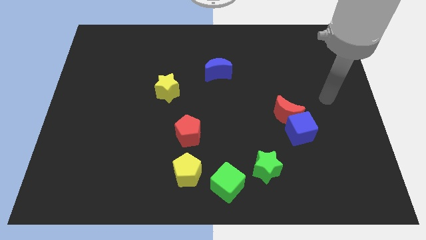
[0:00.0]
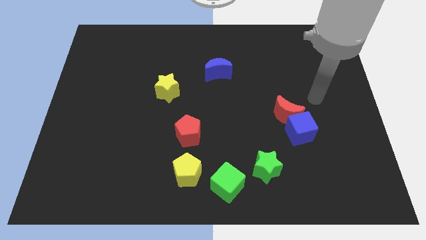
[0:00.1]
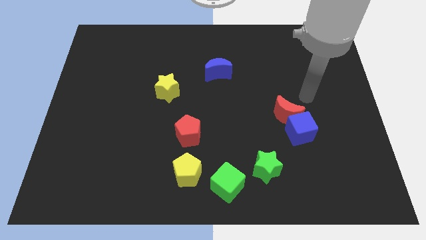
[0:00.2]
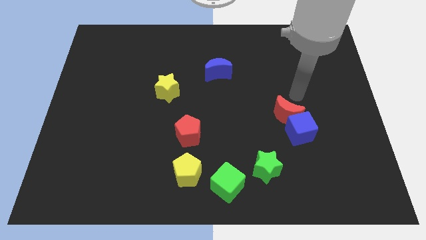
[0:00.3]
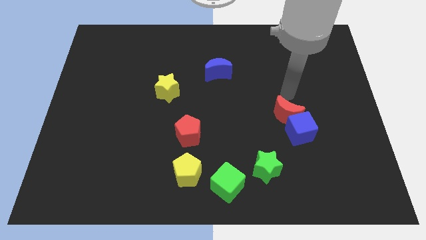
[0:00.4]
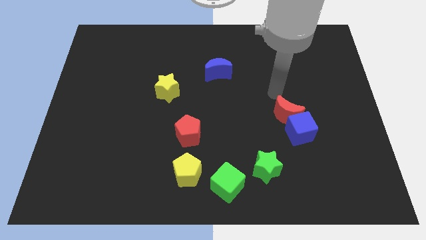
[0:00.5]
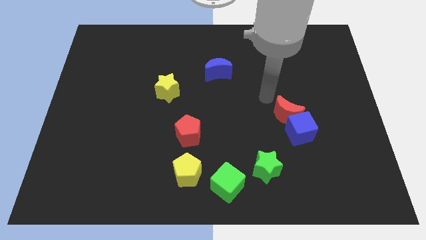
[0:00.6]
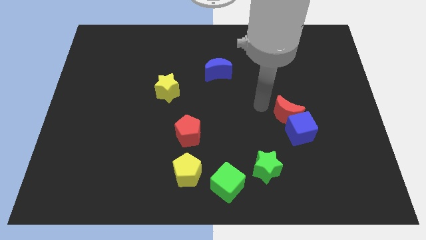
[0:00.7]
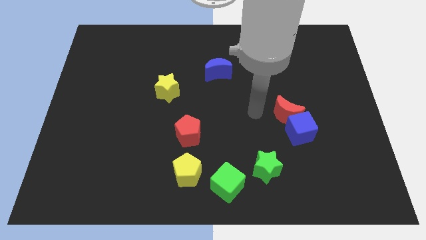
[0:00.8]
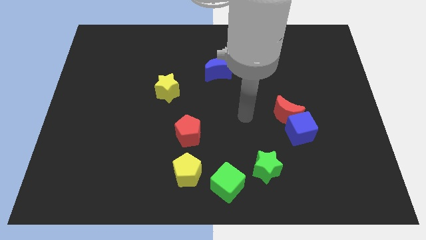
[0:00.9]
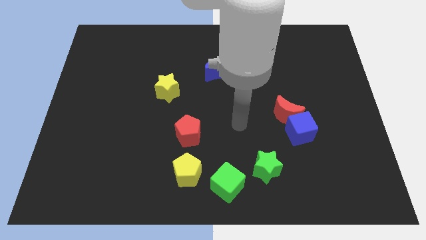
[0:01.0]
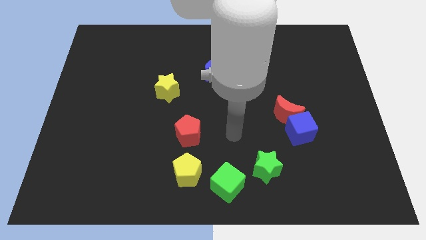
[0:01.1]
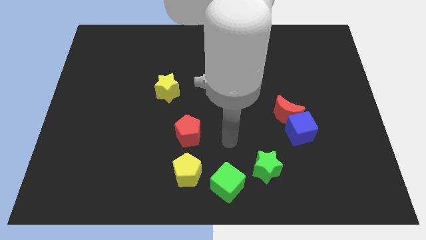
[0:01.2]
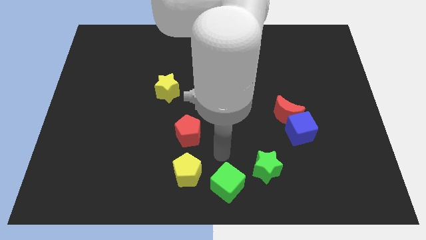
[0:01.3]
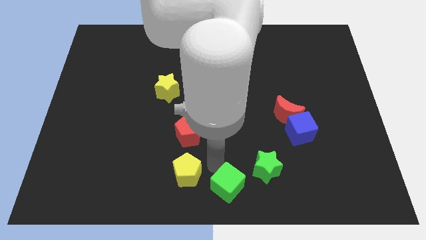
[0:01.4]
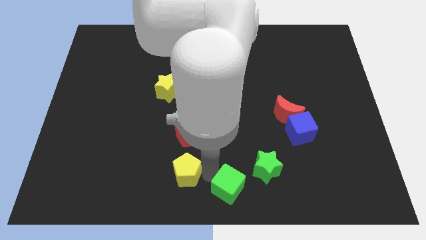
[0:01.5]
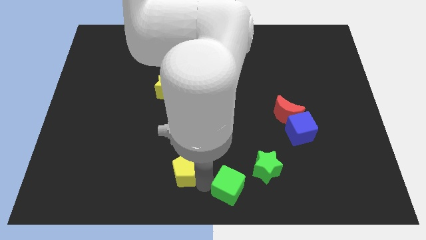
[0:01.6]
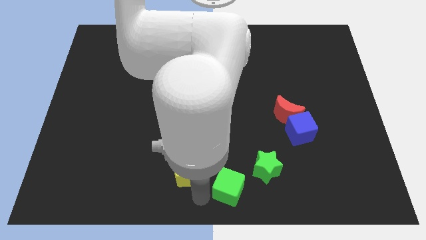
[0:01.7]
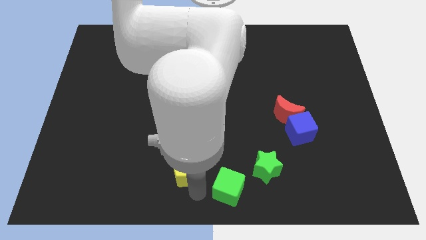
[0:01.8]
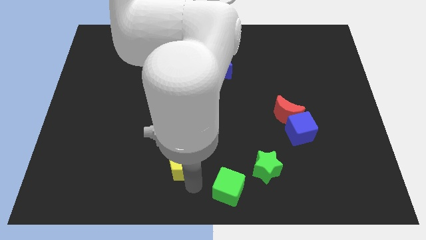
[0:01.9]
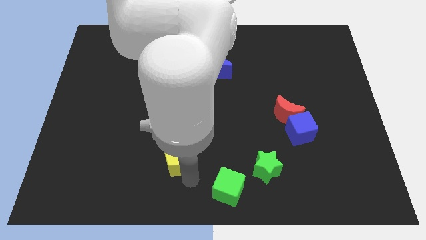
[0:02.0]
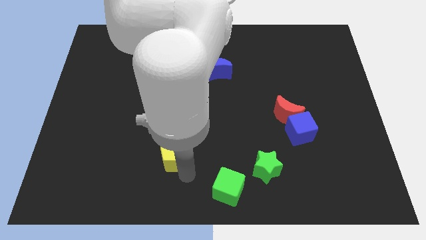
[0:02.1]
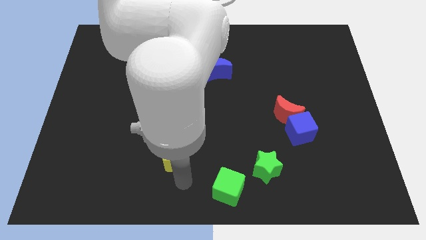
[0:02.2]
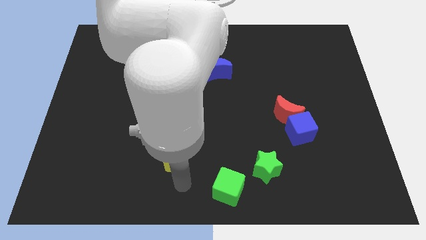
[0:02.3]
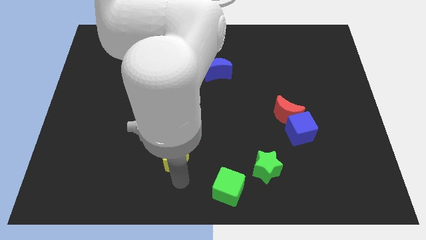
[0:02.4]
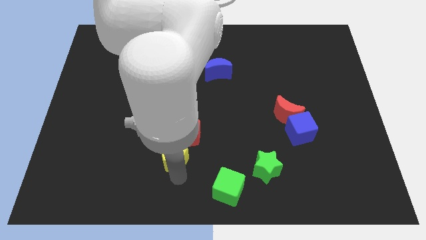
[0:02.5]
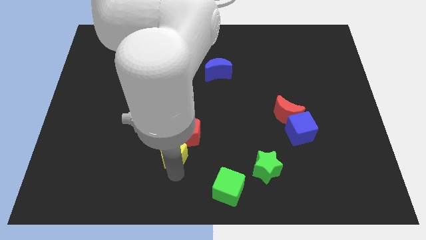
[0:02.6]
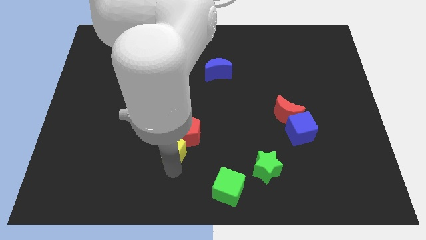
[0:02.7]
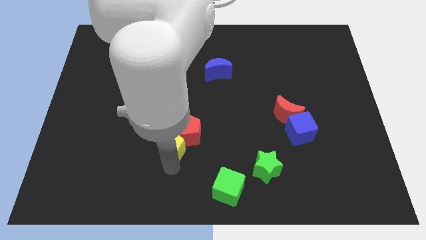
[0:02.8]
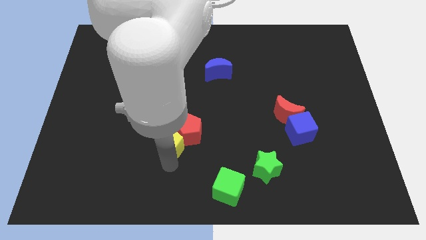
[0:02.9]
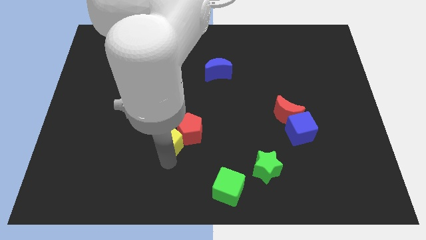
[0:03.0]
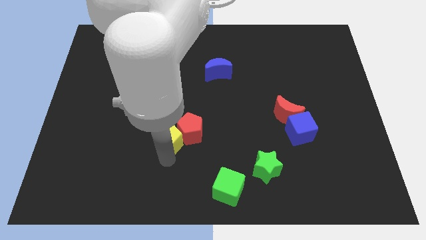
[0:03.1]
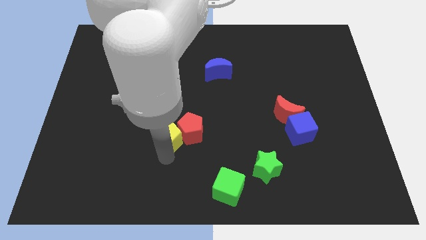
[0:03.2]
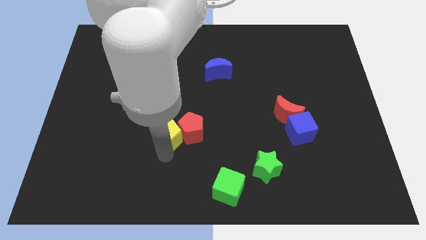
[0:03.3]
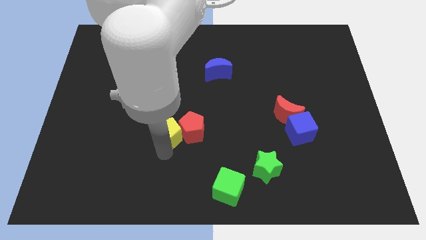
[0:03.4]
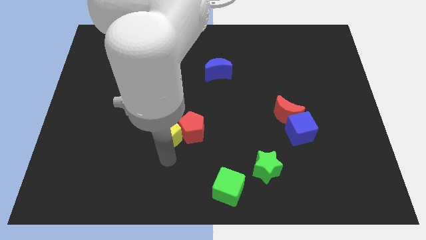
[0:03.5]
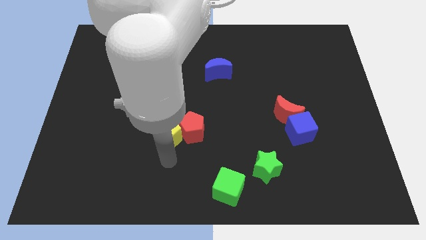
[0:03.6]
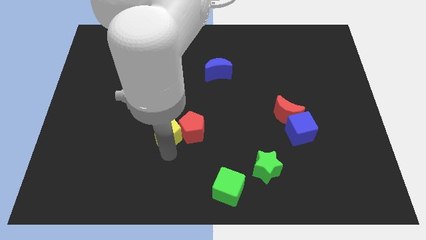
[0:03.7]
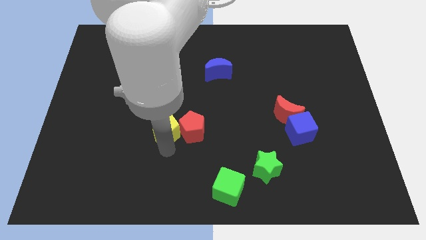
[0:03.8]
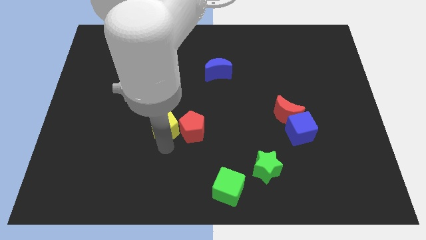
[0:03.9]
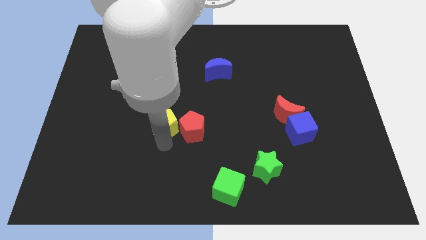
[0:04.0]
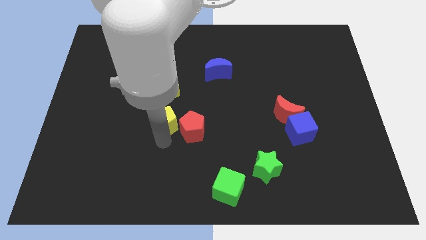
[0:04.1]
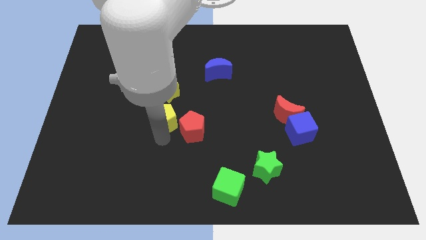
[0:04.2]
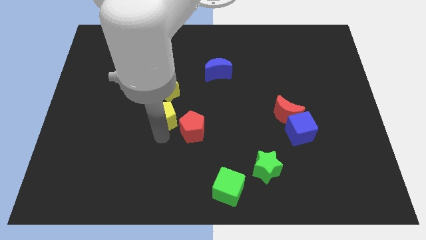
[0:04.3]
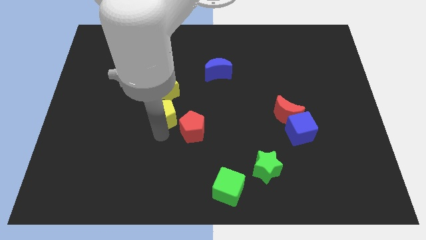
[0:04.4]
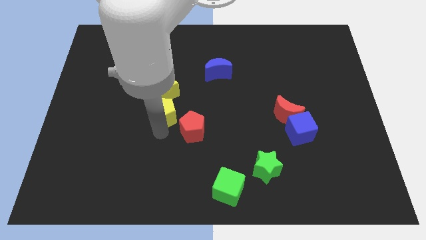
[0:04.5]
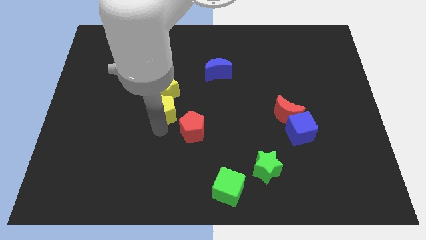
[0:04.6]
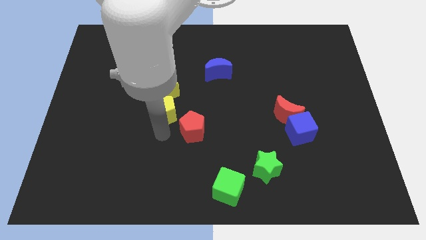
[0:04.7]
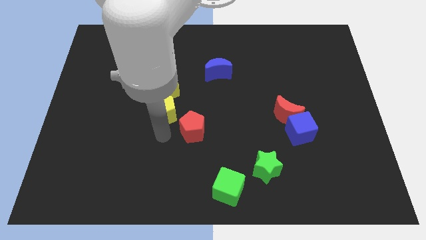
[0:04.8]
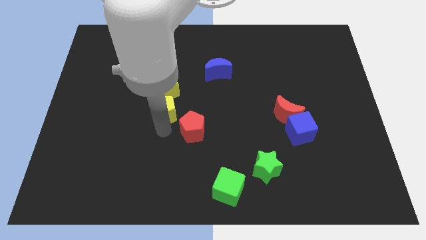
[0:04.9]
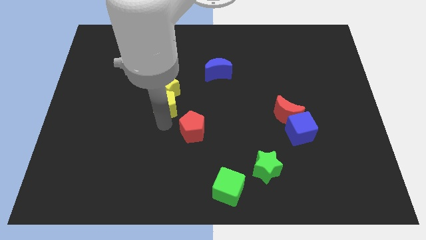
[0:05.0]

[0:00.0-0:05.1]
move the yellow pentagon close to the yellow star

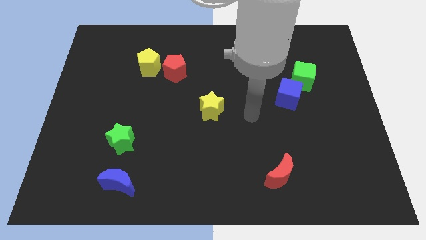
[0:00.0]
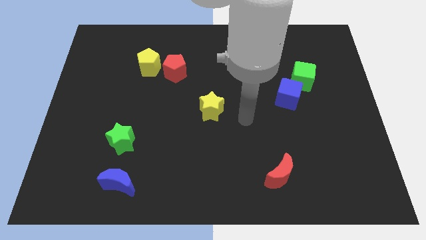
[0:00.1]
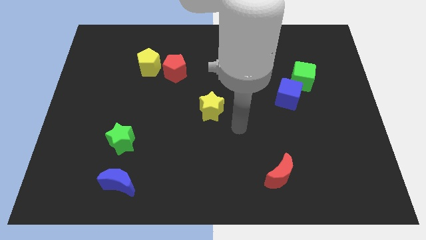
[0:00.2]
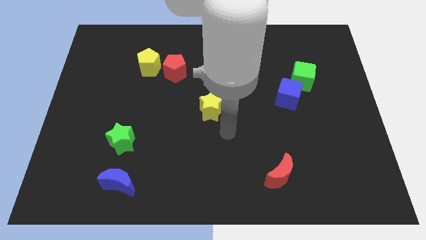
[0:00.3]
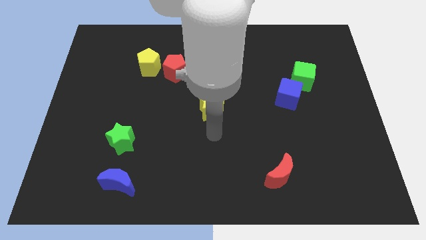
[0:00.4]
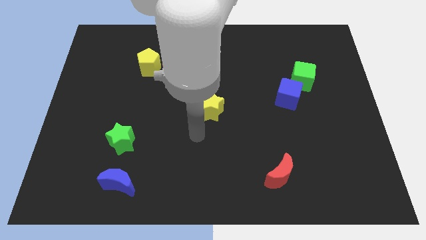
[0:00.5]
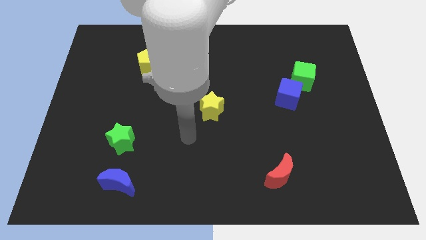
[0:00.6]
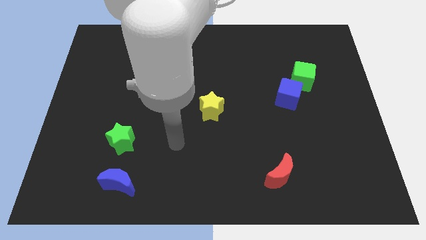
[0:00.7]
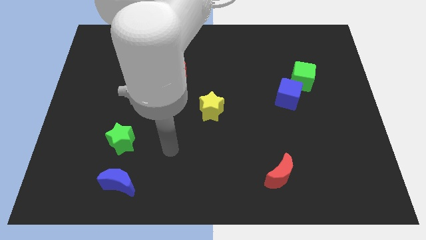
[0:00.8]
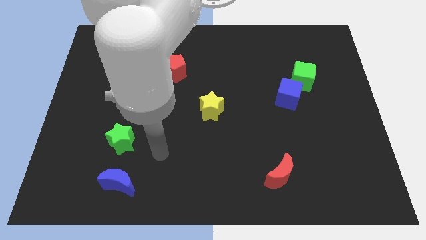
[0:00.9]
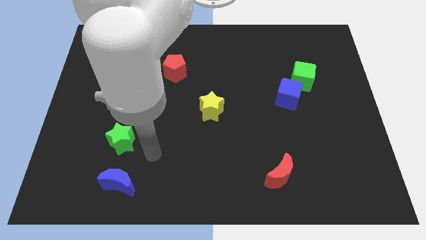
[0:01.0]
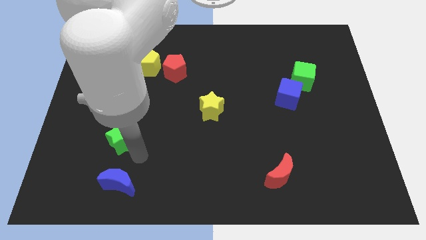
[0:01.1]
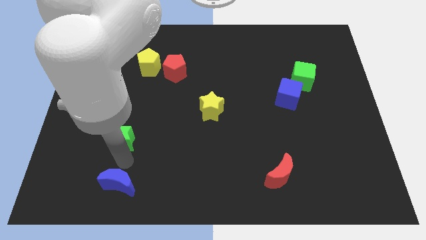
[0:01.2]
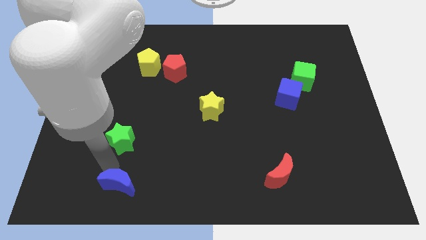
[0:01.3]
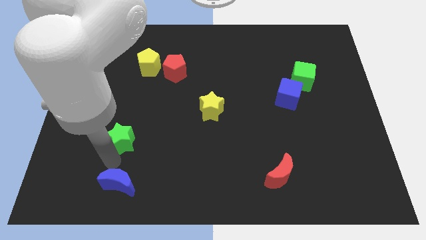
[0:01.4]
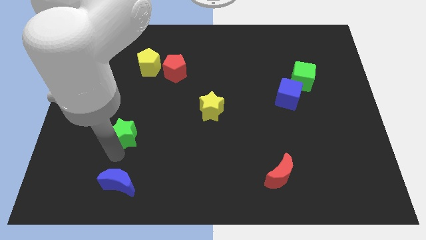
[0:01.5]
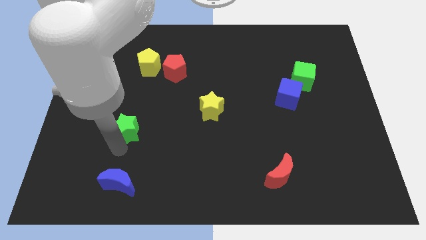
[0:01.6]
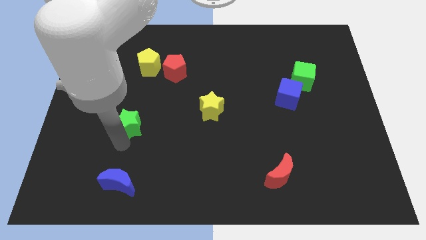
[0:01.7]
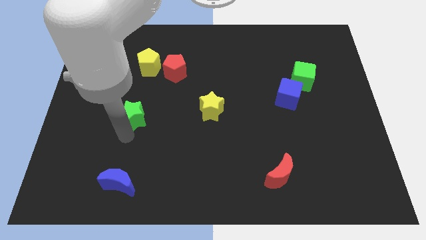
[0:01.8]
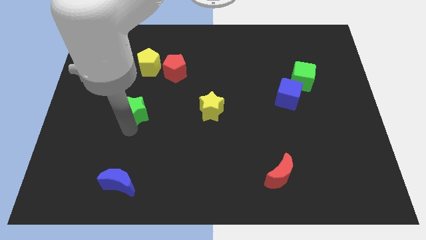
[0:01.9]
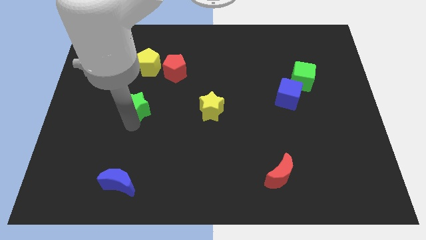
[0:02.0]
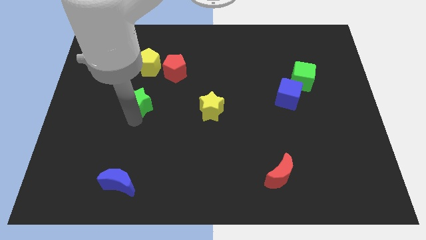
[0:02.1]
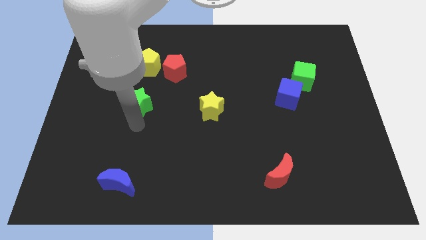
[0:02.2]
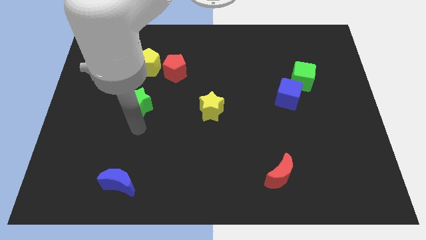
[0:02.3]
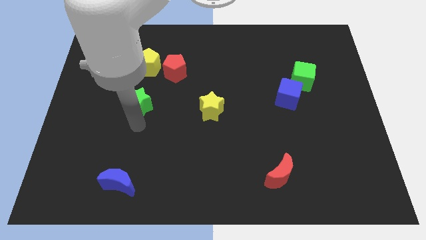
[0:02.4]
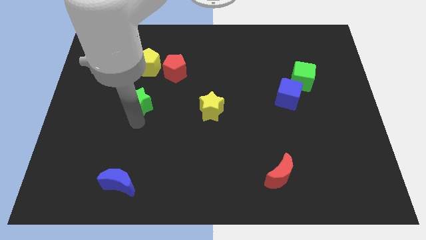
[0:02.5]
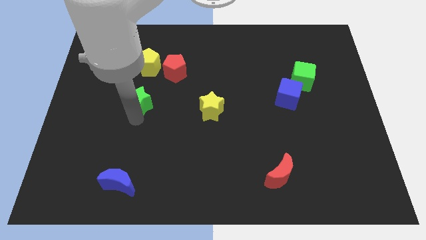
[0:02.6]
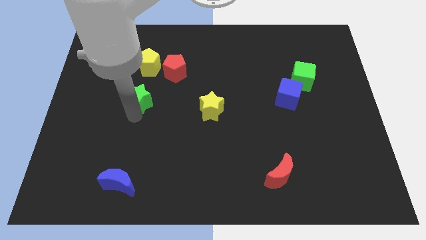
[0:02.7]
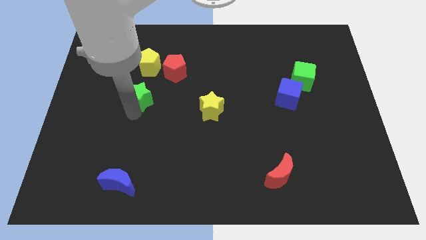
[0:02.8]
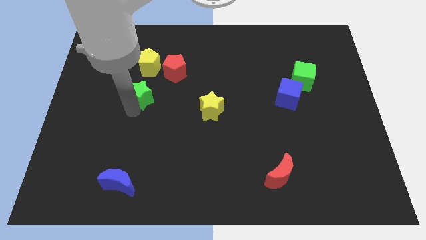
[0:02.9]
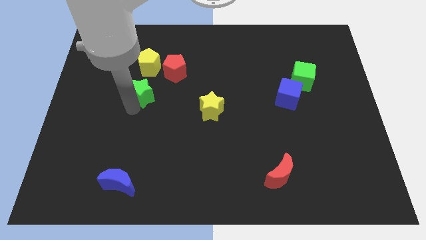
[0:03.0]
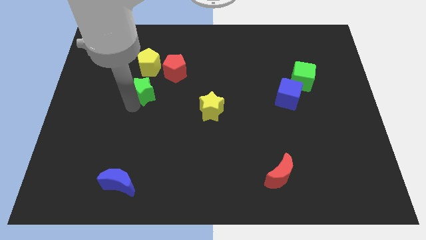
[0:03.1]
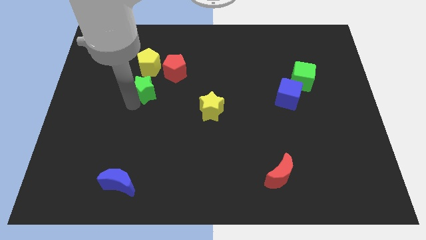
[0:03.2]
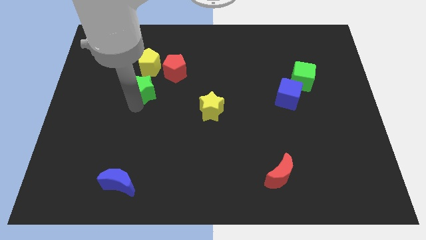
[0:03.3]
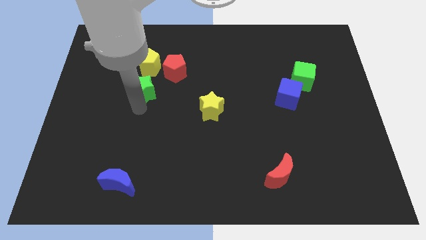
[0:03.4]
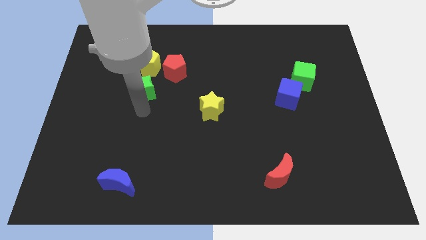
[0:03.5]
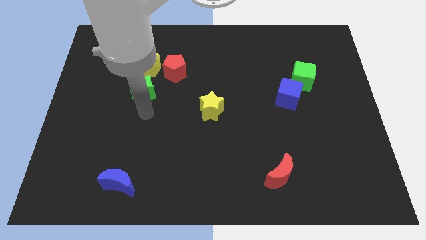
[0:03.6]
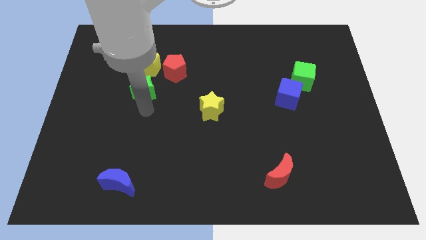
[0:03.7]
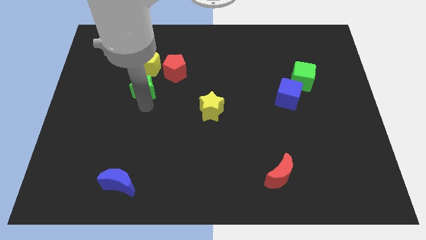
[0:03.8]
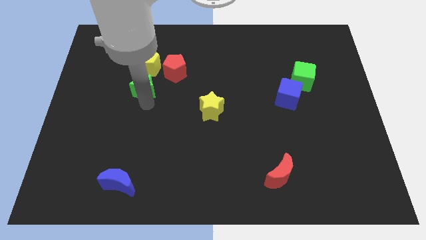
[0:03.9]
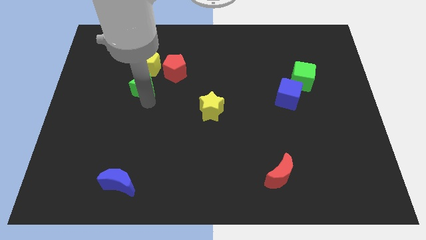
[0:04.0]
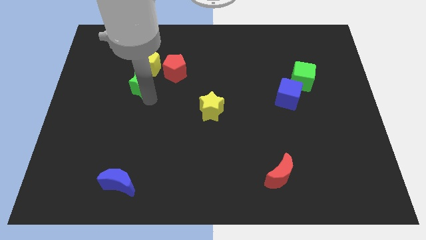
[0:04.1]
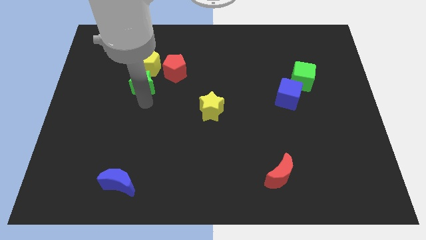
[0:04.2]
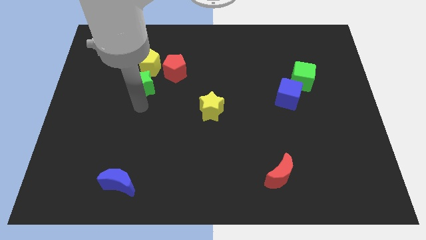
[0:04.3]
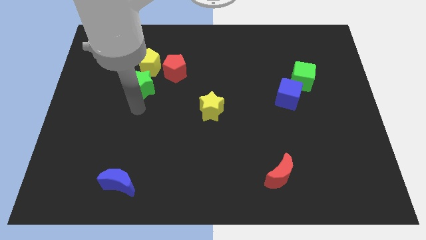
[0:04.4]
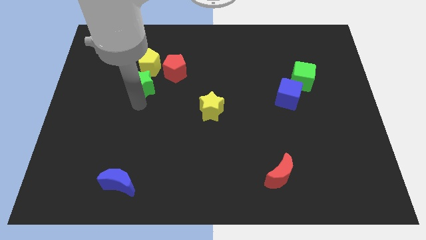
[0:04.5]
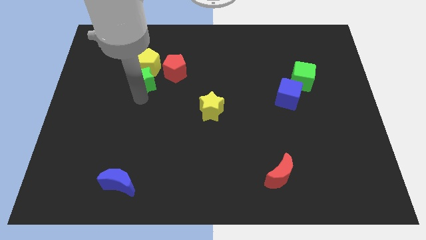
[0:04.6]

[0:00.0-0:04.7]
push the green star towards the yellow pentagon
